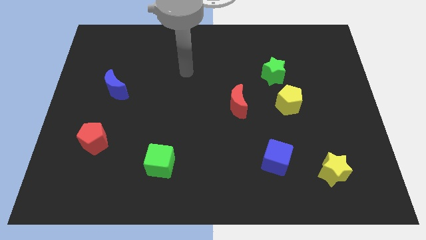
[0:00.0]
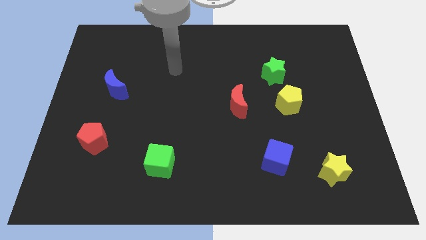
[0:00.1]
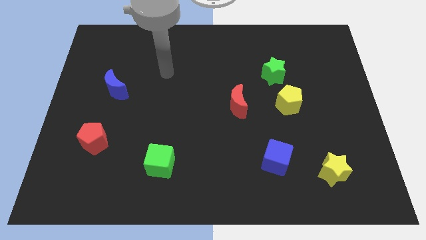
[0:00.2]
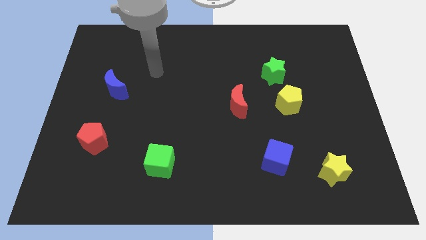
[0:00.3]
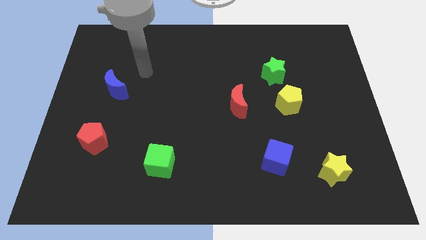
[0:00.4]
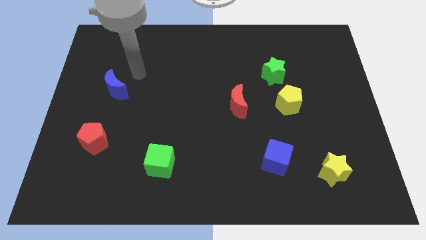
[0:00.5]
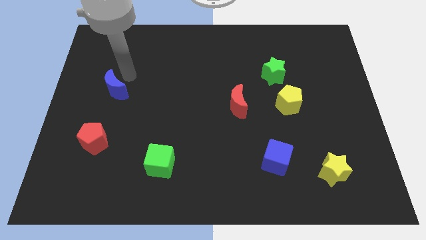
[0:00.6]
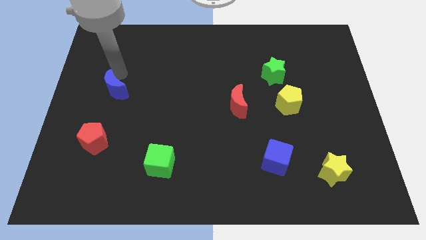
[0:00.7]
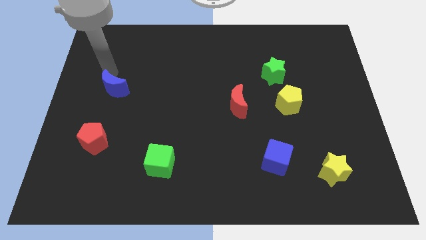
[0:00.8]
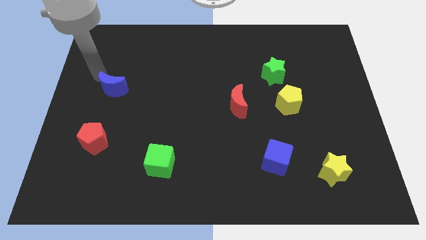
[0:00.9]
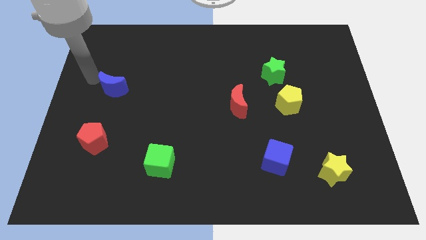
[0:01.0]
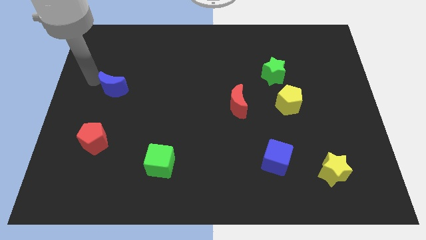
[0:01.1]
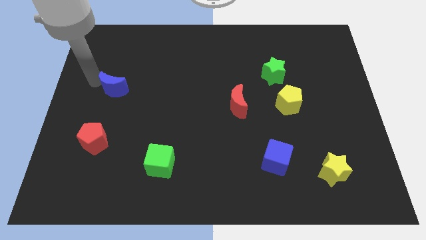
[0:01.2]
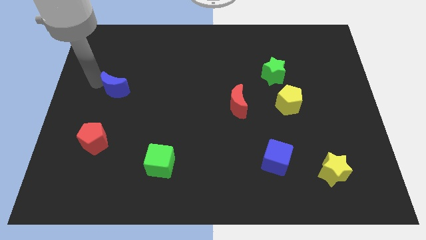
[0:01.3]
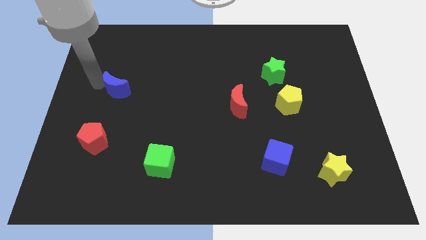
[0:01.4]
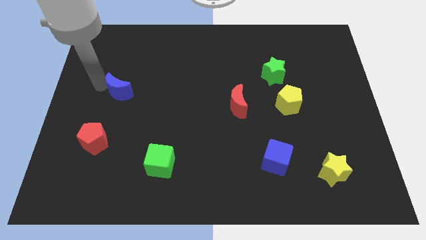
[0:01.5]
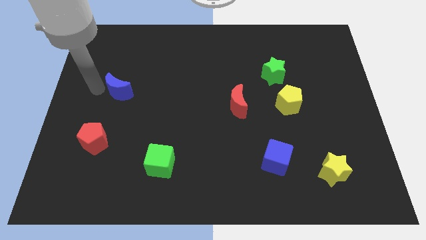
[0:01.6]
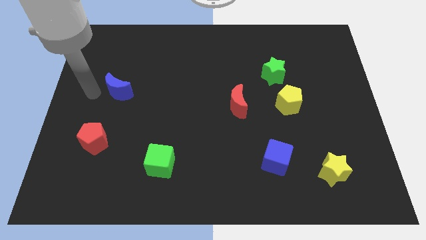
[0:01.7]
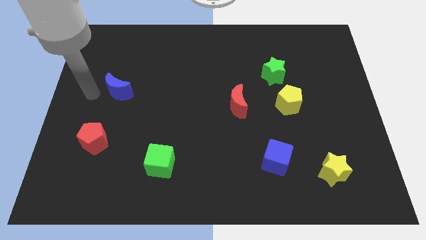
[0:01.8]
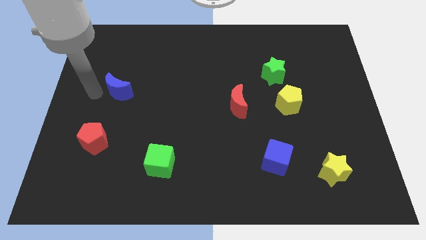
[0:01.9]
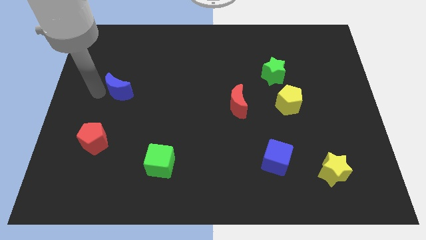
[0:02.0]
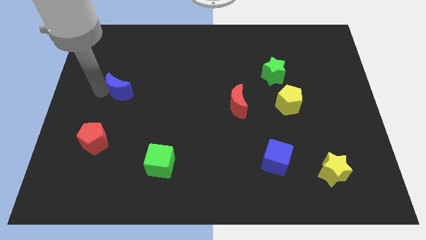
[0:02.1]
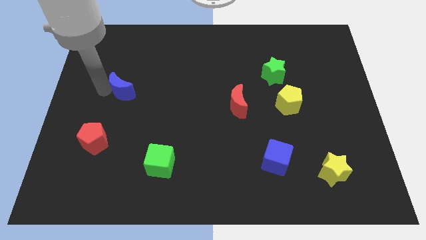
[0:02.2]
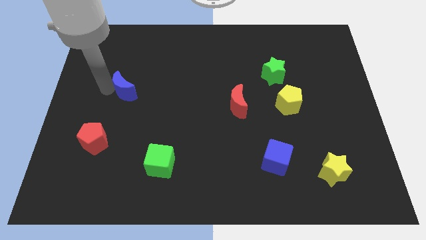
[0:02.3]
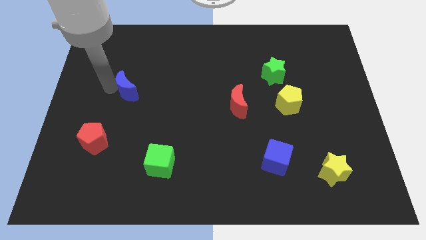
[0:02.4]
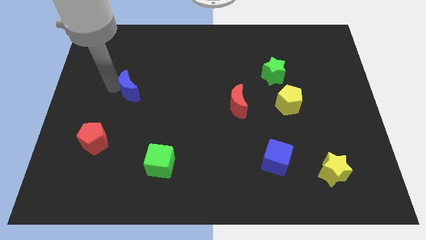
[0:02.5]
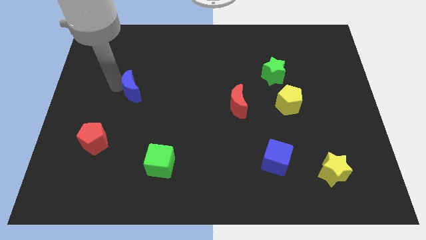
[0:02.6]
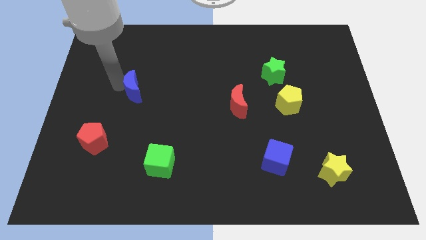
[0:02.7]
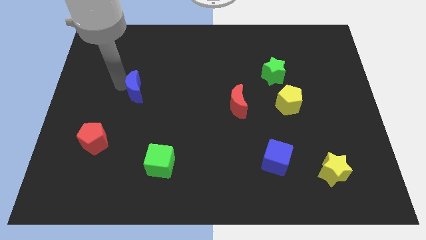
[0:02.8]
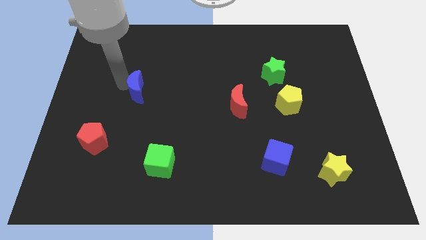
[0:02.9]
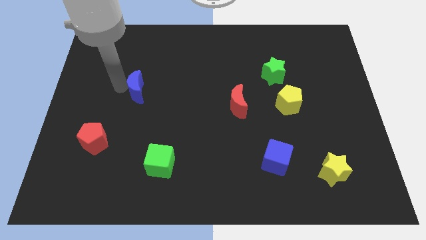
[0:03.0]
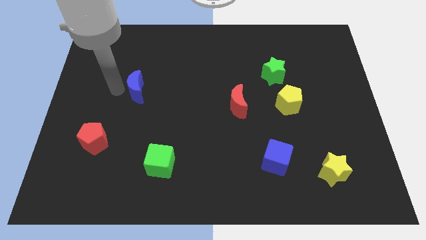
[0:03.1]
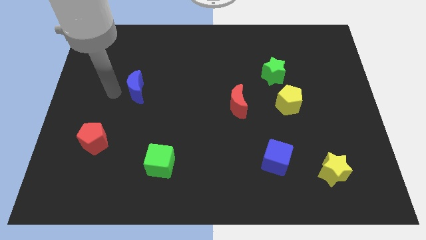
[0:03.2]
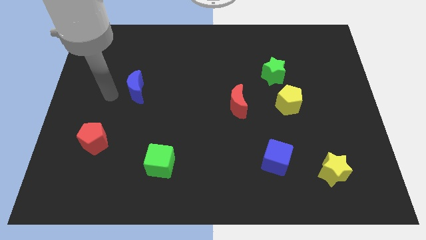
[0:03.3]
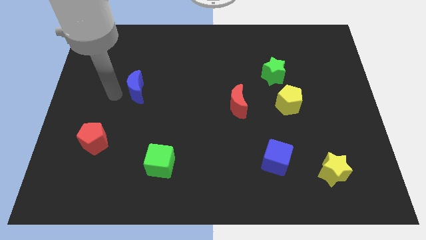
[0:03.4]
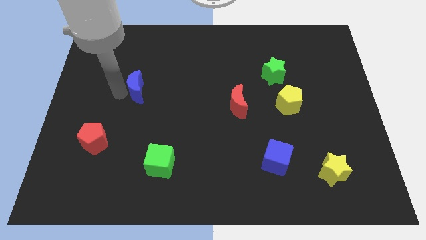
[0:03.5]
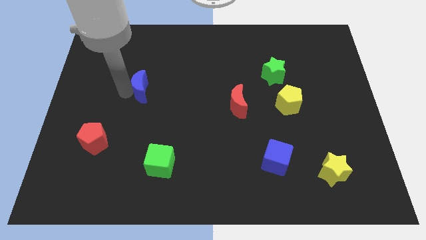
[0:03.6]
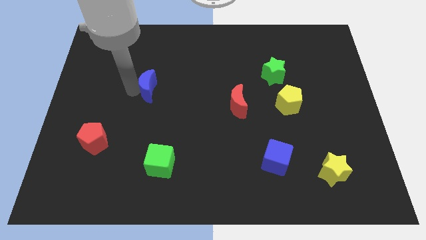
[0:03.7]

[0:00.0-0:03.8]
push the blue moon right a little bit

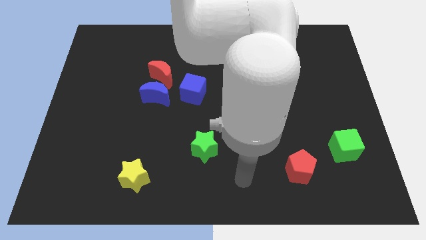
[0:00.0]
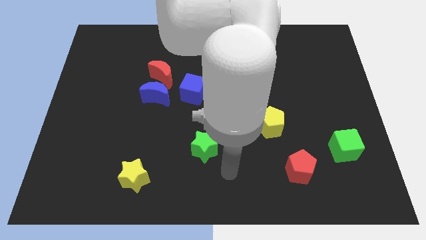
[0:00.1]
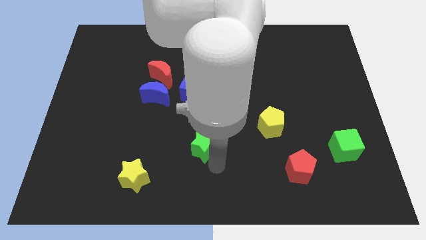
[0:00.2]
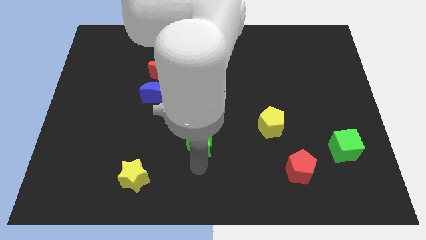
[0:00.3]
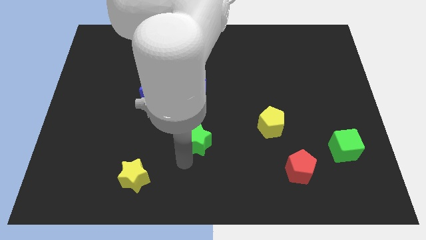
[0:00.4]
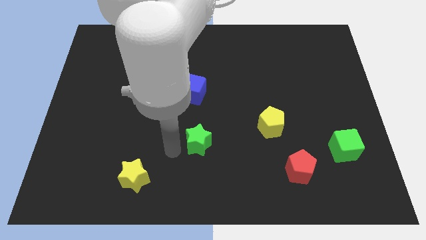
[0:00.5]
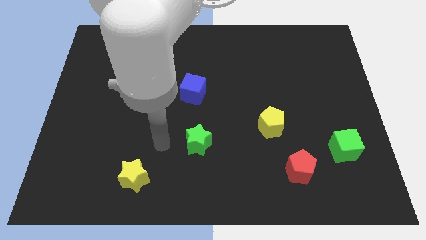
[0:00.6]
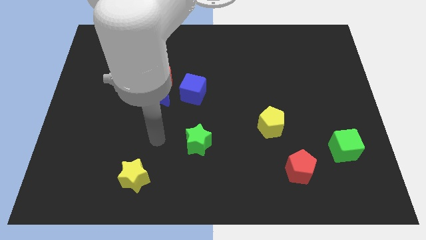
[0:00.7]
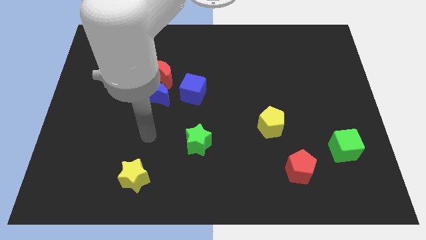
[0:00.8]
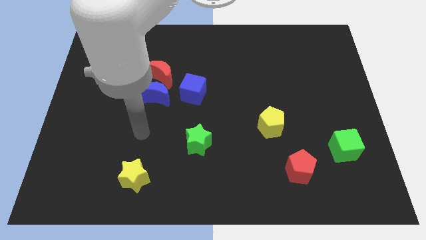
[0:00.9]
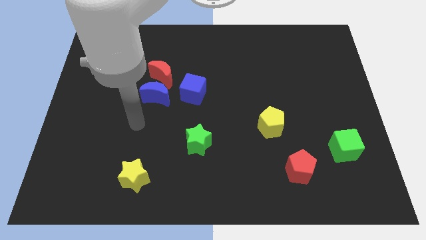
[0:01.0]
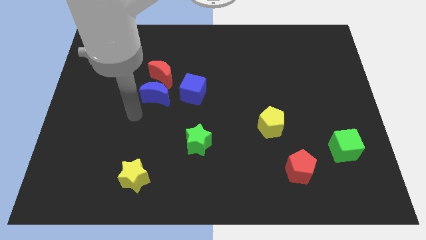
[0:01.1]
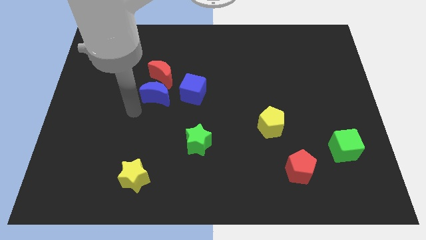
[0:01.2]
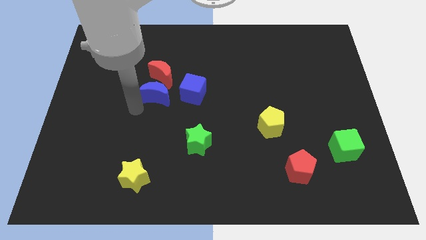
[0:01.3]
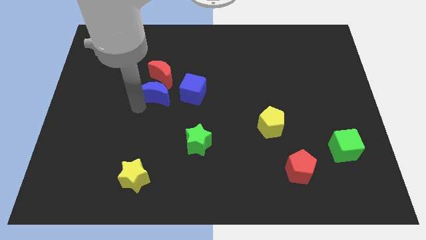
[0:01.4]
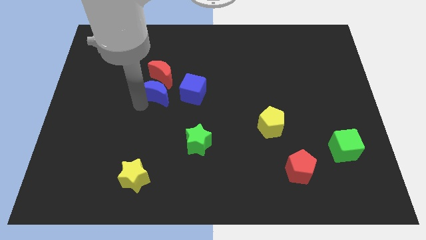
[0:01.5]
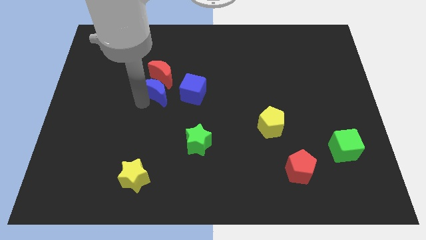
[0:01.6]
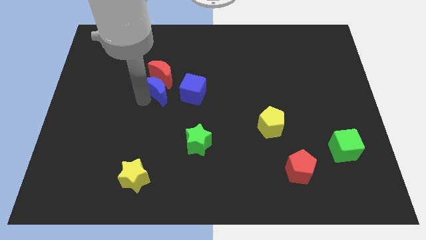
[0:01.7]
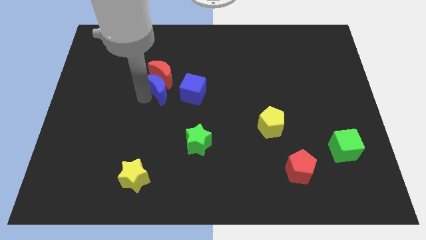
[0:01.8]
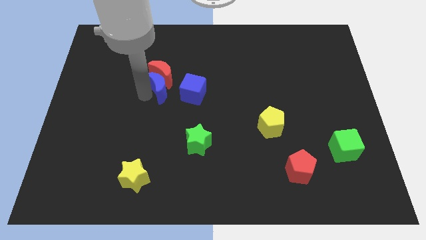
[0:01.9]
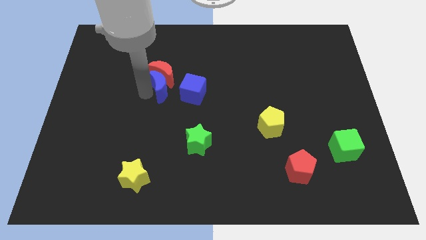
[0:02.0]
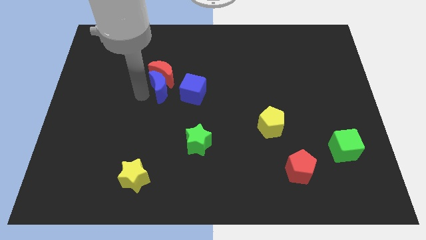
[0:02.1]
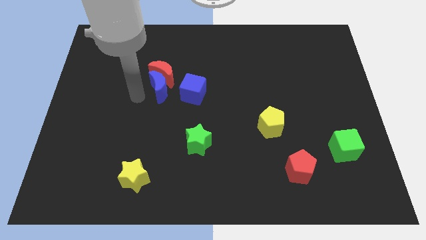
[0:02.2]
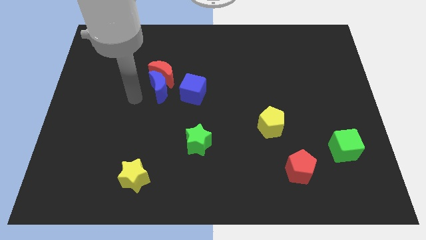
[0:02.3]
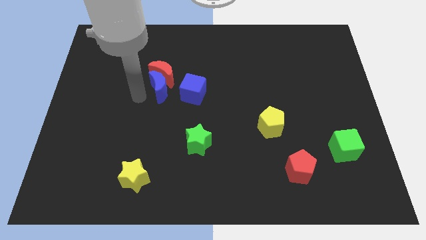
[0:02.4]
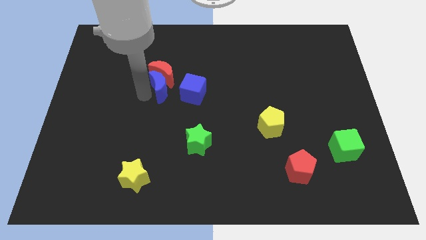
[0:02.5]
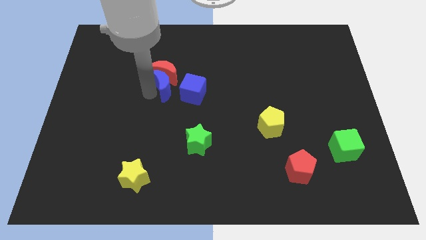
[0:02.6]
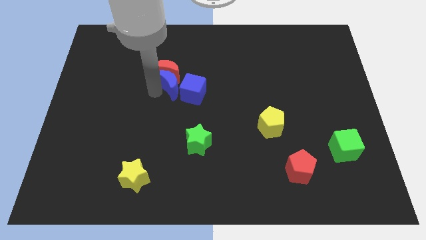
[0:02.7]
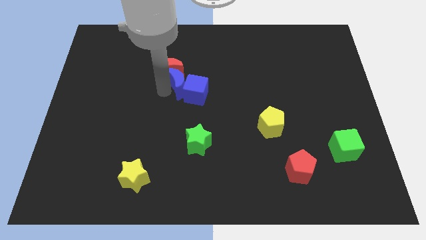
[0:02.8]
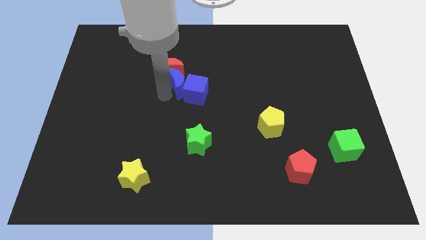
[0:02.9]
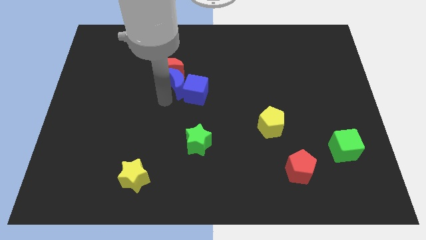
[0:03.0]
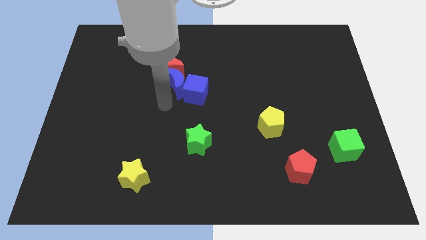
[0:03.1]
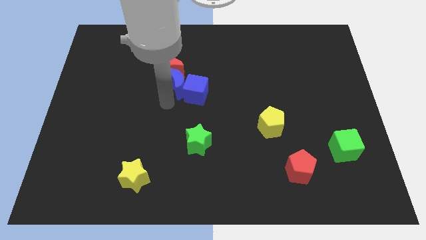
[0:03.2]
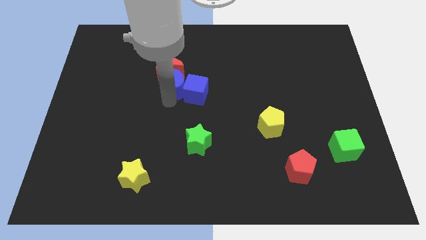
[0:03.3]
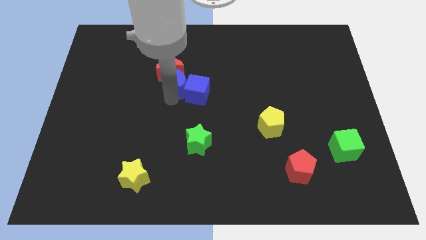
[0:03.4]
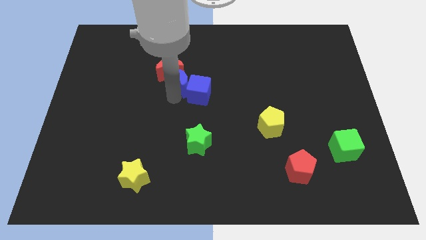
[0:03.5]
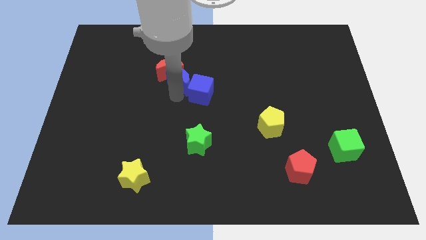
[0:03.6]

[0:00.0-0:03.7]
move the blue moon a bit diagonally up and to the right

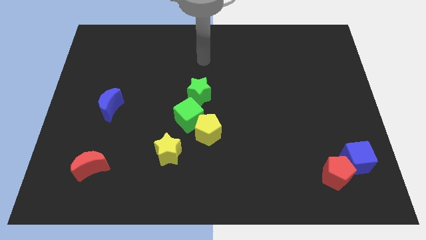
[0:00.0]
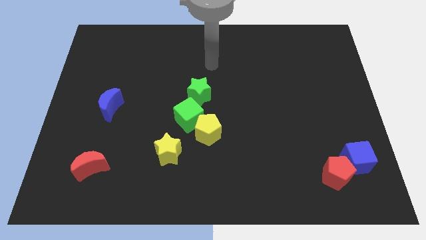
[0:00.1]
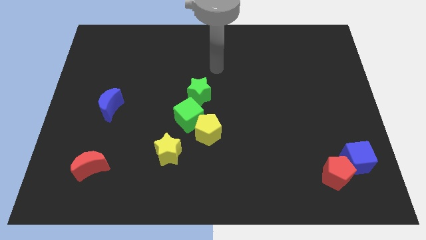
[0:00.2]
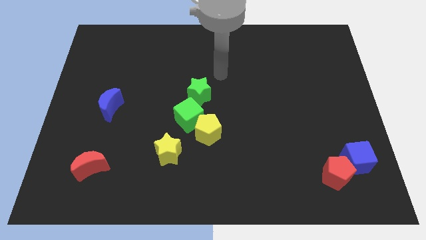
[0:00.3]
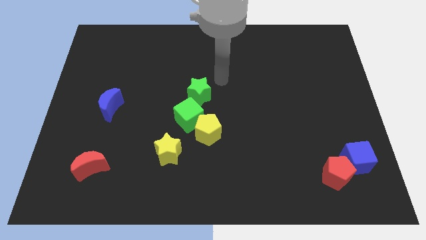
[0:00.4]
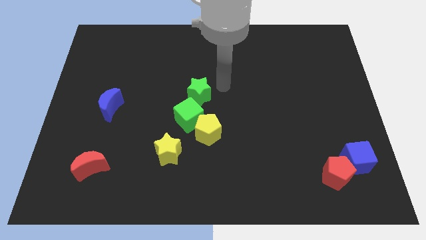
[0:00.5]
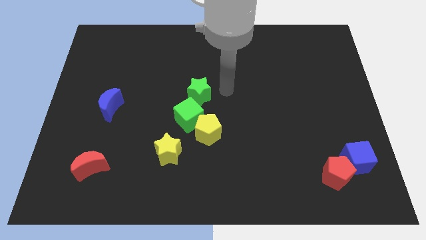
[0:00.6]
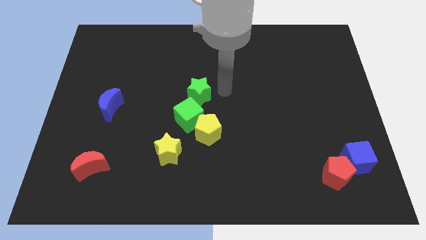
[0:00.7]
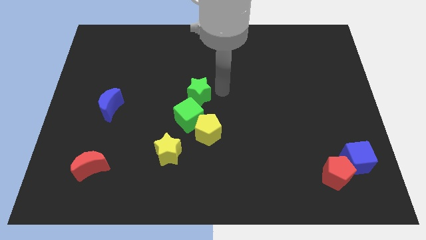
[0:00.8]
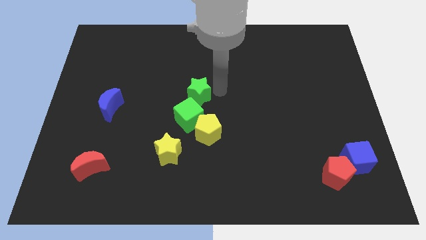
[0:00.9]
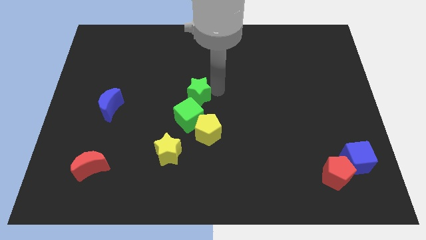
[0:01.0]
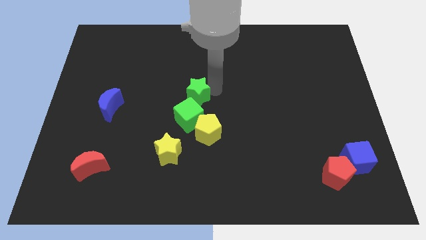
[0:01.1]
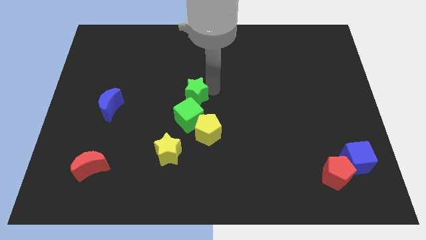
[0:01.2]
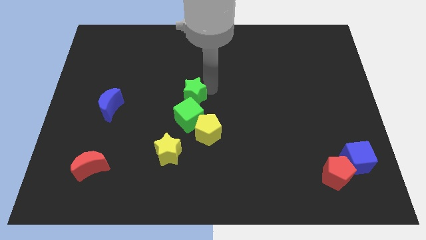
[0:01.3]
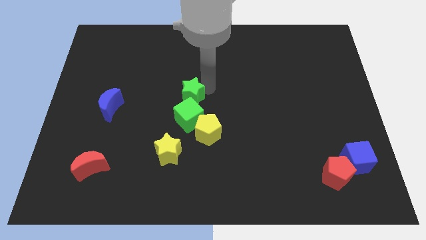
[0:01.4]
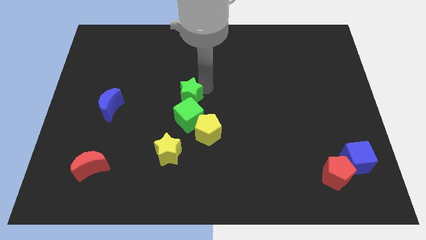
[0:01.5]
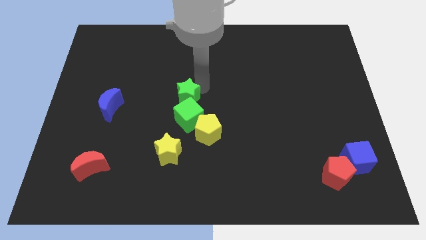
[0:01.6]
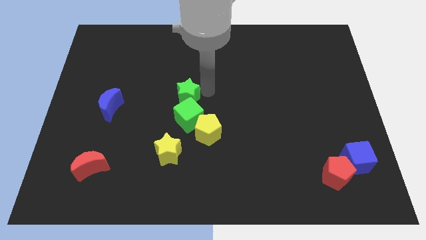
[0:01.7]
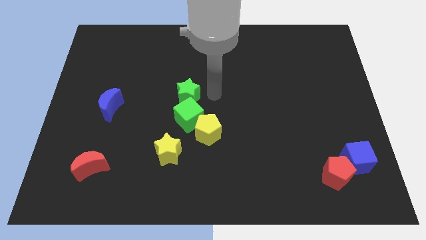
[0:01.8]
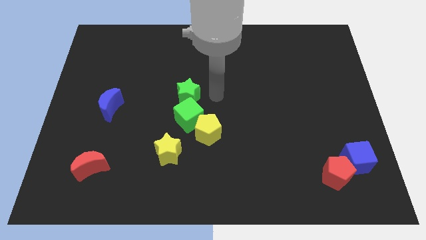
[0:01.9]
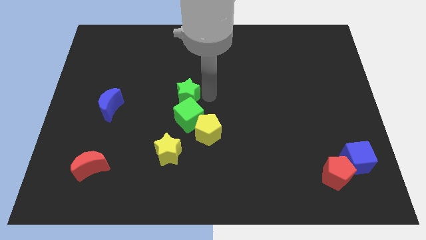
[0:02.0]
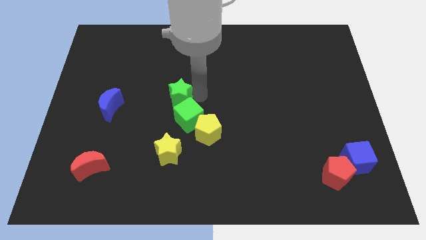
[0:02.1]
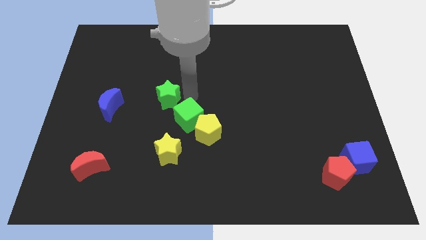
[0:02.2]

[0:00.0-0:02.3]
slightly slide the green star left
